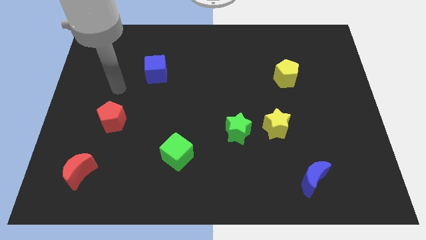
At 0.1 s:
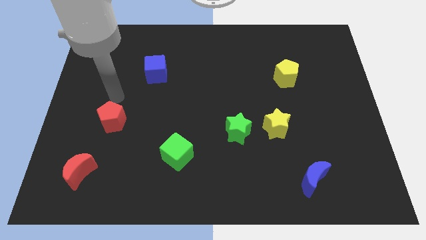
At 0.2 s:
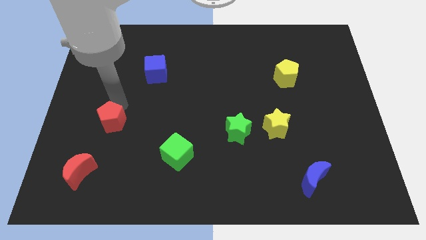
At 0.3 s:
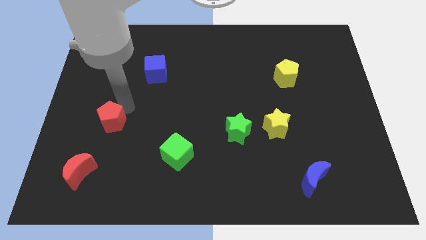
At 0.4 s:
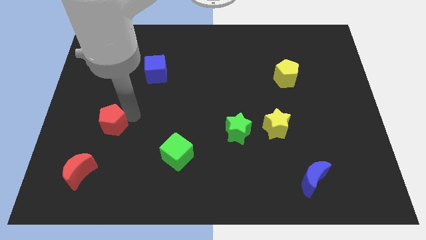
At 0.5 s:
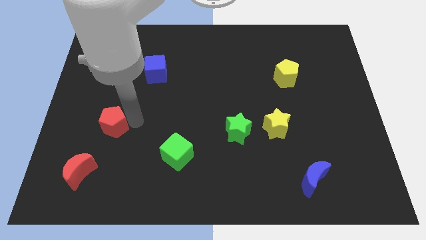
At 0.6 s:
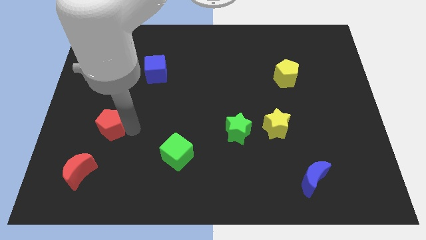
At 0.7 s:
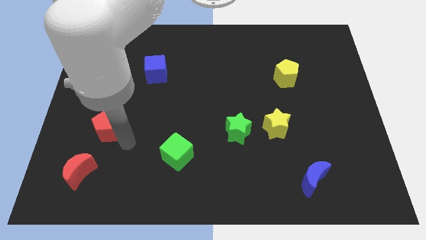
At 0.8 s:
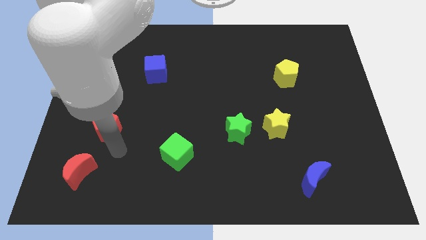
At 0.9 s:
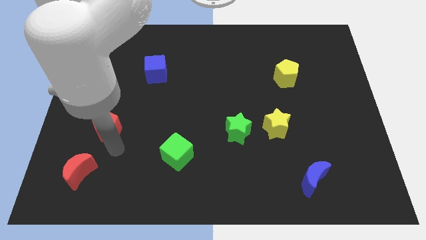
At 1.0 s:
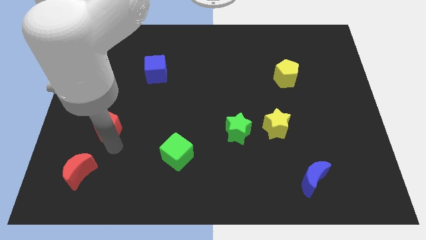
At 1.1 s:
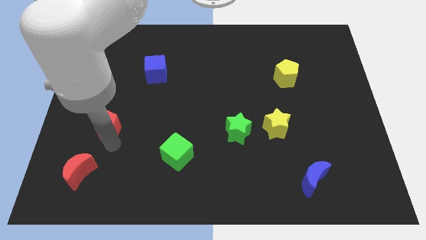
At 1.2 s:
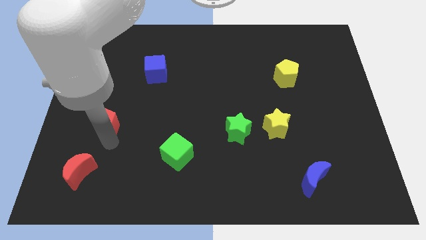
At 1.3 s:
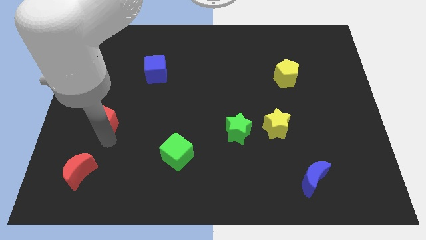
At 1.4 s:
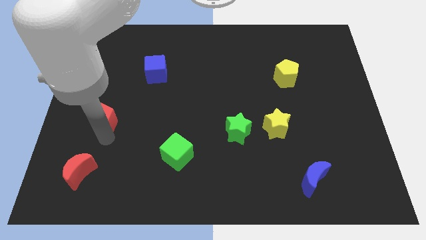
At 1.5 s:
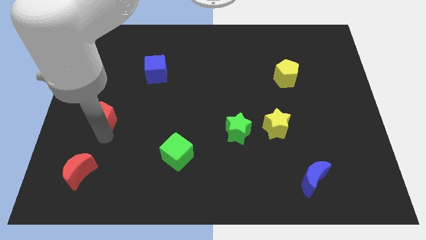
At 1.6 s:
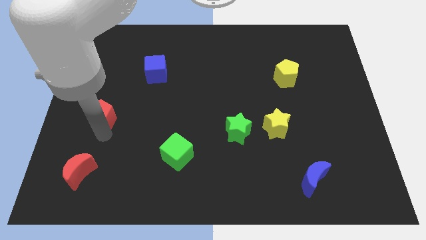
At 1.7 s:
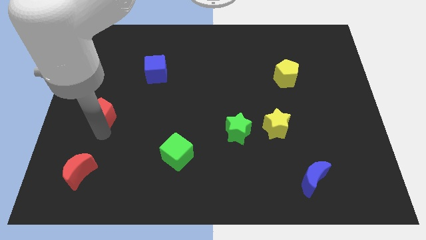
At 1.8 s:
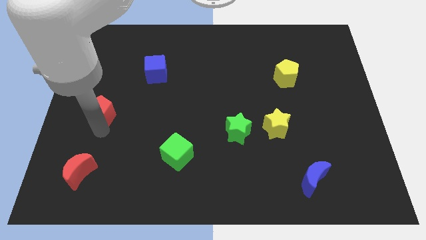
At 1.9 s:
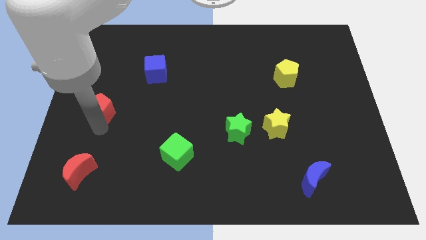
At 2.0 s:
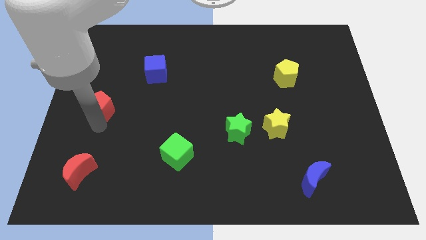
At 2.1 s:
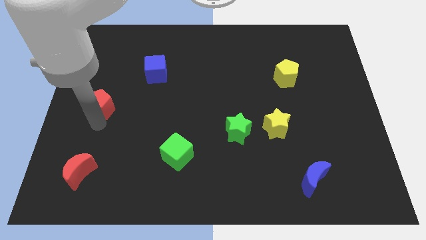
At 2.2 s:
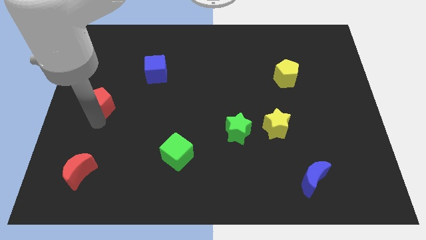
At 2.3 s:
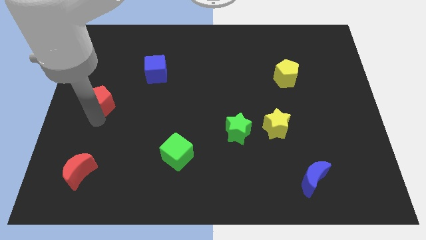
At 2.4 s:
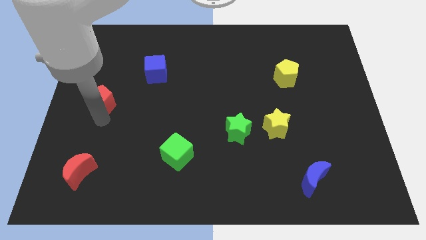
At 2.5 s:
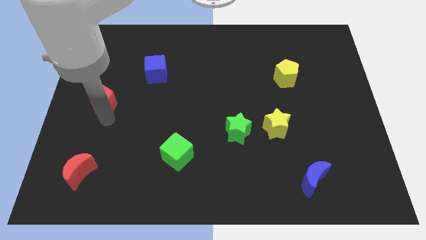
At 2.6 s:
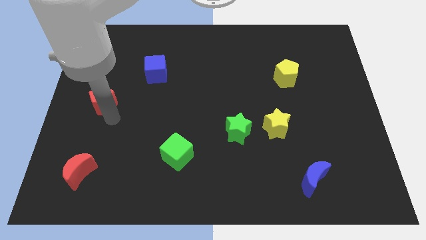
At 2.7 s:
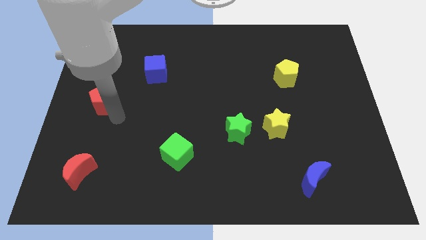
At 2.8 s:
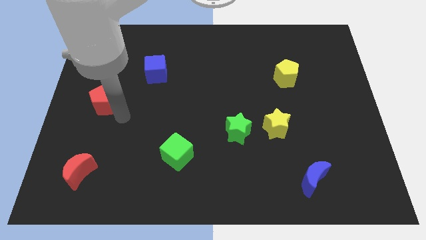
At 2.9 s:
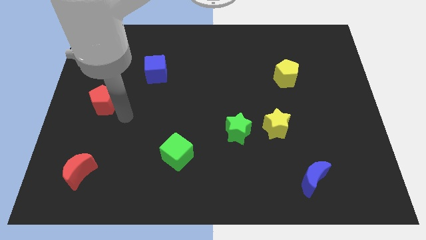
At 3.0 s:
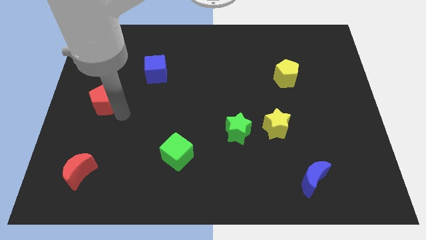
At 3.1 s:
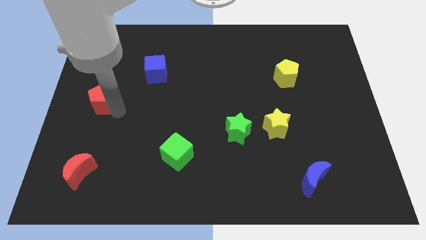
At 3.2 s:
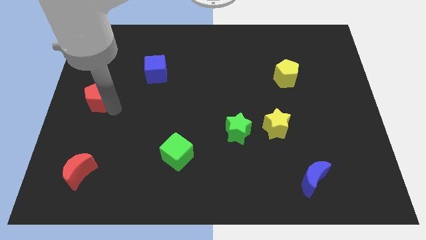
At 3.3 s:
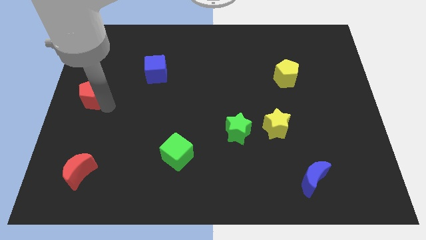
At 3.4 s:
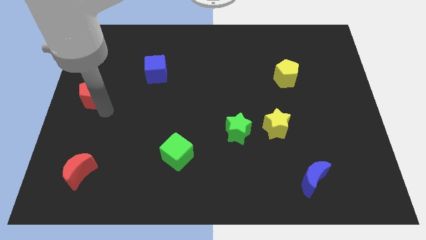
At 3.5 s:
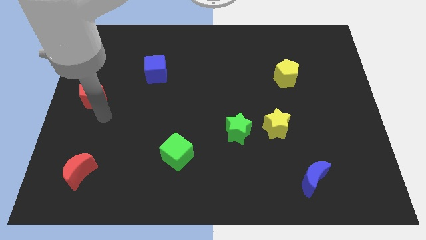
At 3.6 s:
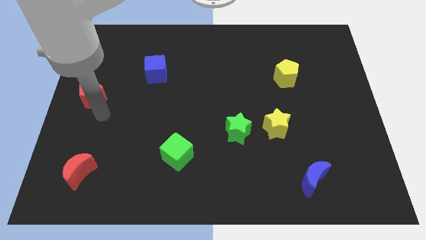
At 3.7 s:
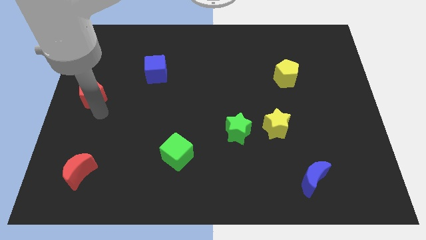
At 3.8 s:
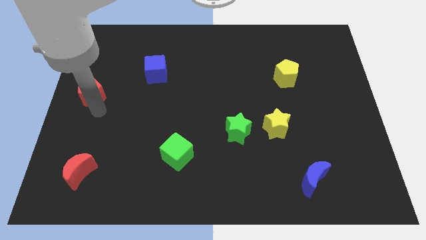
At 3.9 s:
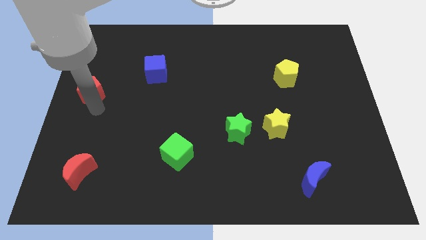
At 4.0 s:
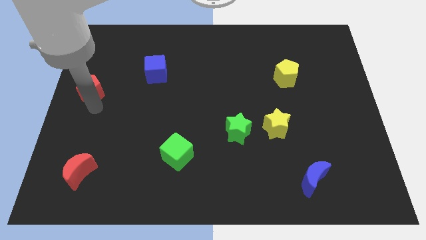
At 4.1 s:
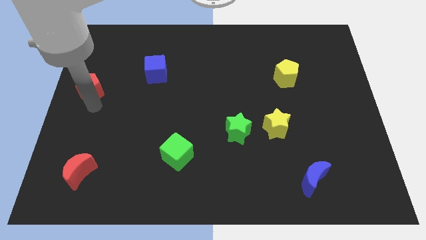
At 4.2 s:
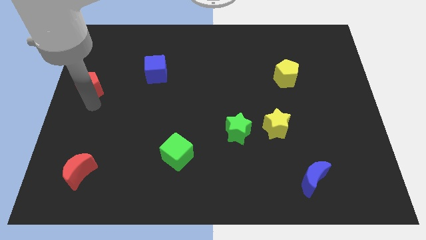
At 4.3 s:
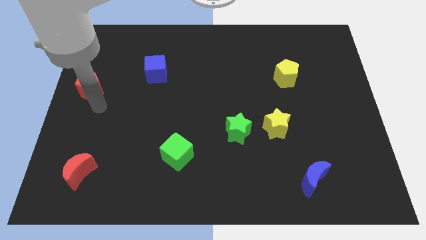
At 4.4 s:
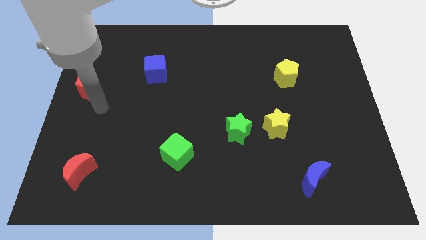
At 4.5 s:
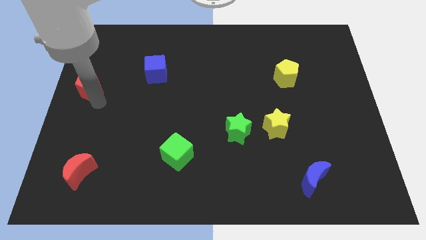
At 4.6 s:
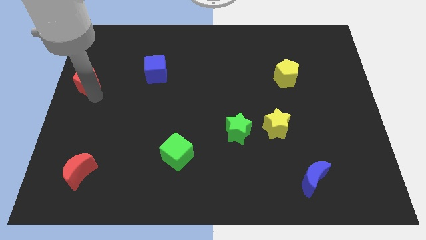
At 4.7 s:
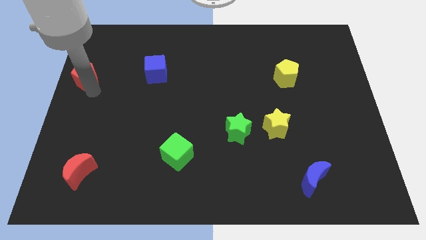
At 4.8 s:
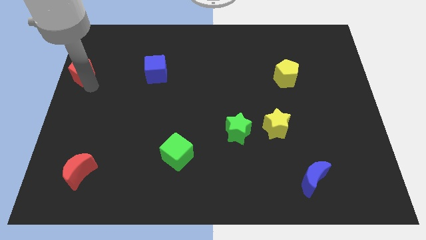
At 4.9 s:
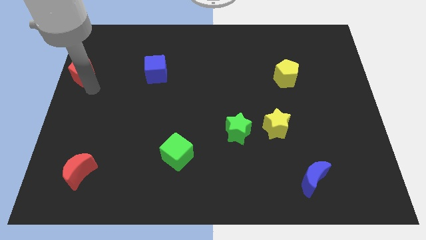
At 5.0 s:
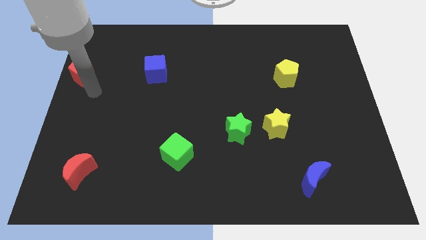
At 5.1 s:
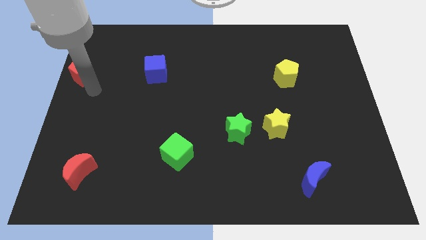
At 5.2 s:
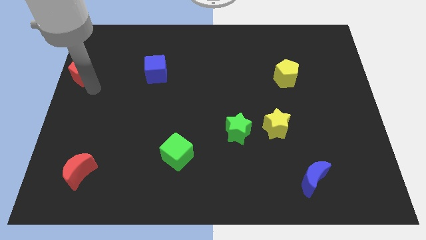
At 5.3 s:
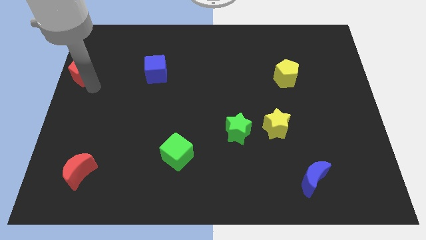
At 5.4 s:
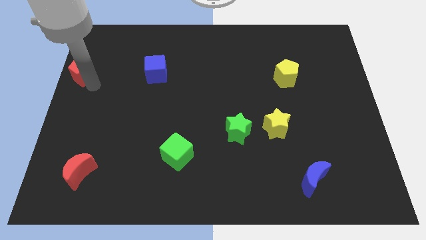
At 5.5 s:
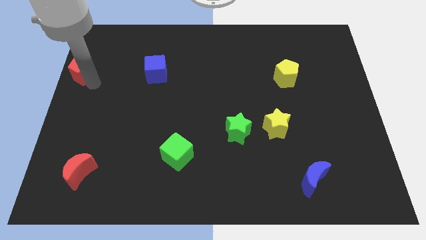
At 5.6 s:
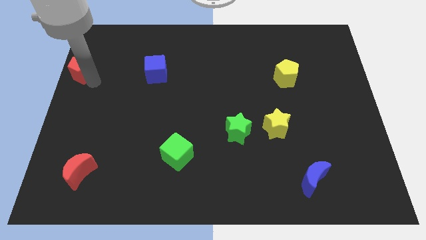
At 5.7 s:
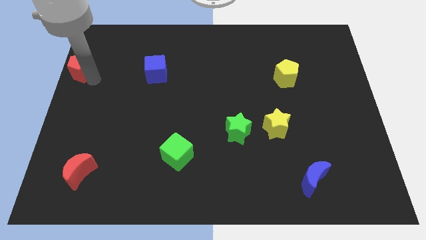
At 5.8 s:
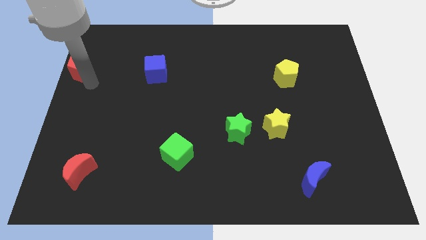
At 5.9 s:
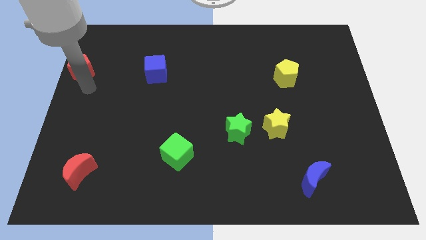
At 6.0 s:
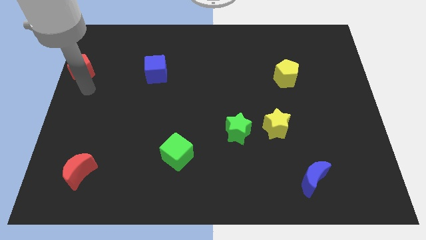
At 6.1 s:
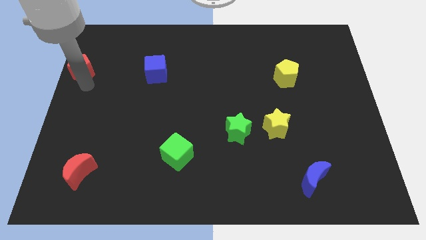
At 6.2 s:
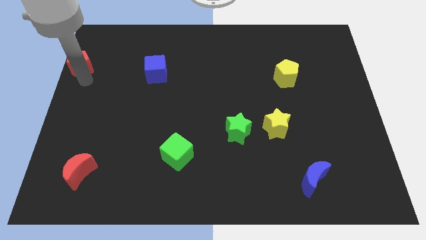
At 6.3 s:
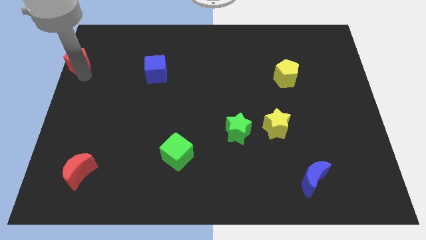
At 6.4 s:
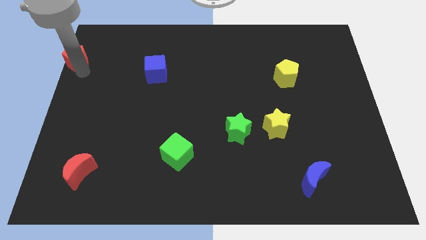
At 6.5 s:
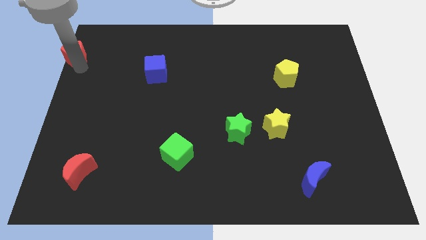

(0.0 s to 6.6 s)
slide the red pentagon to the top left corner
